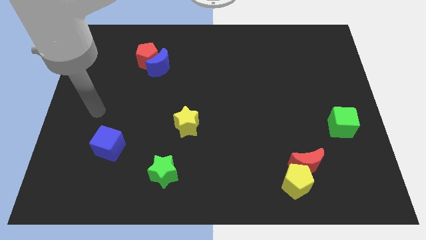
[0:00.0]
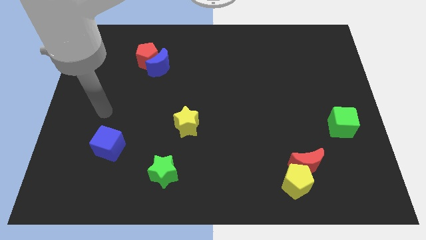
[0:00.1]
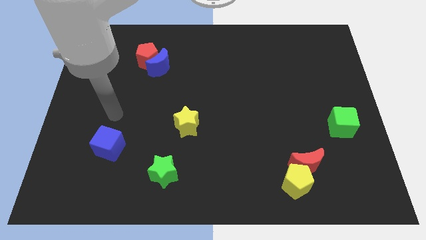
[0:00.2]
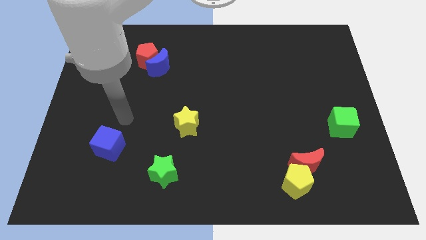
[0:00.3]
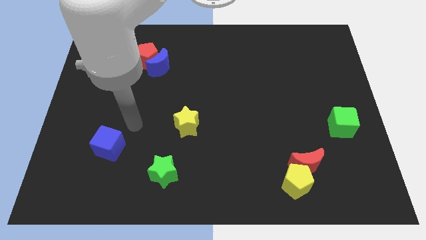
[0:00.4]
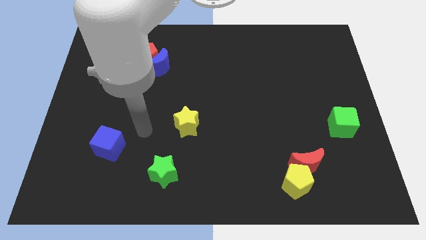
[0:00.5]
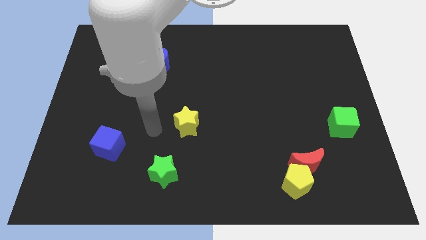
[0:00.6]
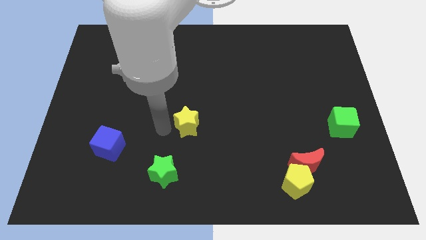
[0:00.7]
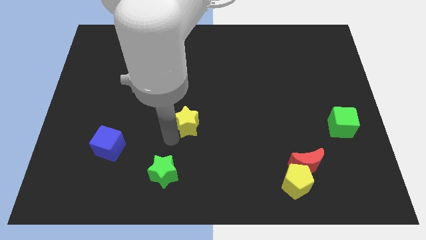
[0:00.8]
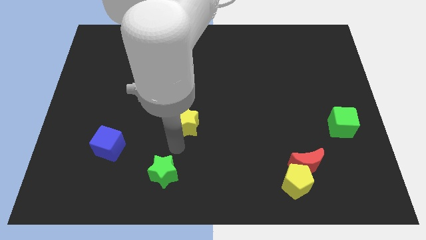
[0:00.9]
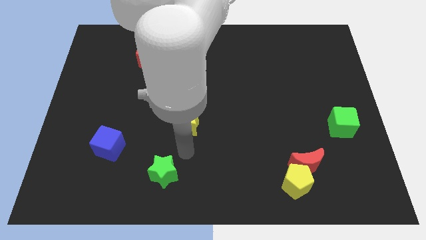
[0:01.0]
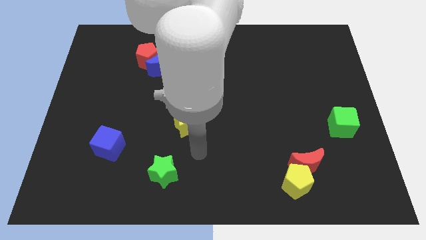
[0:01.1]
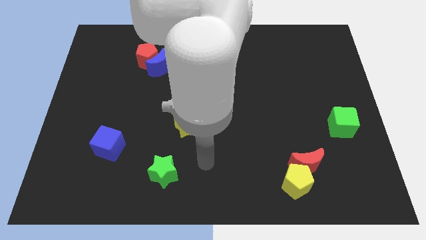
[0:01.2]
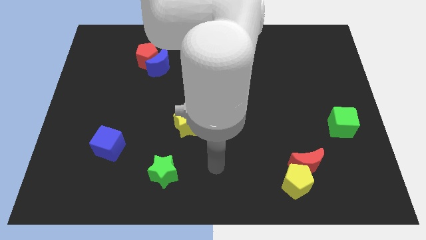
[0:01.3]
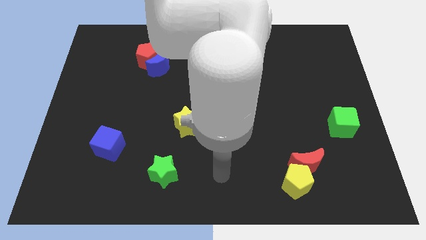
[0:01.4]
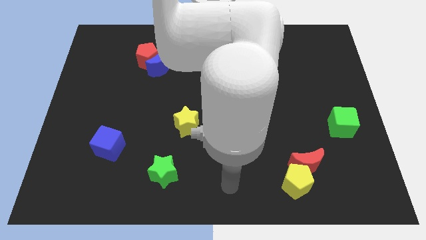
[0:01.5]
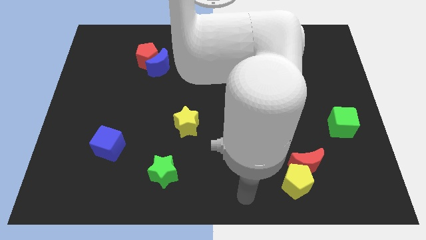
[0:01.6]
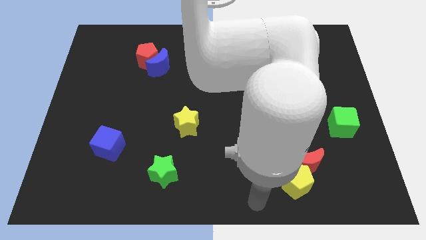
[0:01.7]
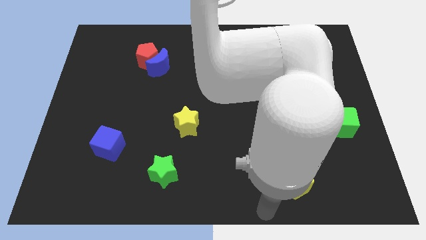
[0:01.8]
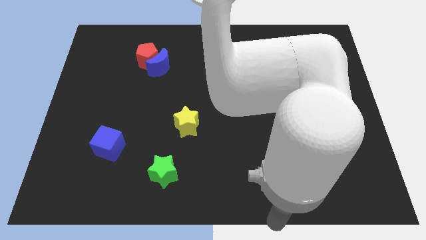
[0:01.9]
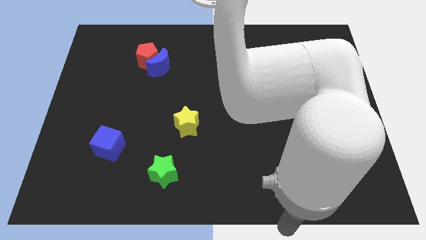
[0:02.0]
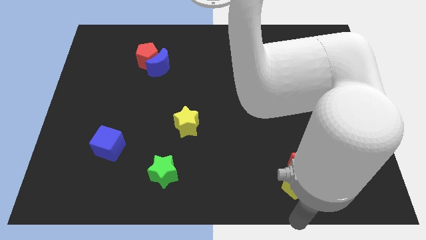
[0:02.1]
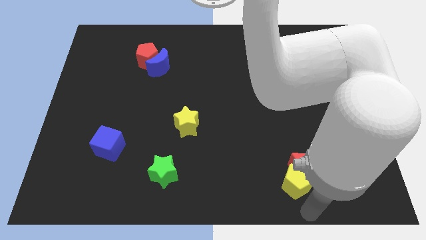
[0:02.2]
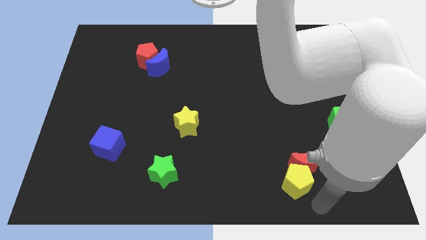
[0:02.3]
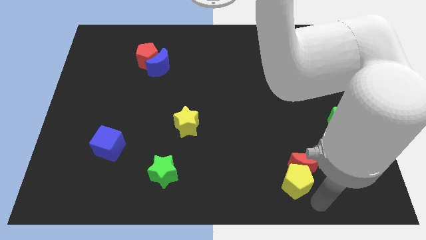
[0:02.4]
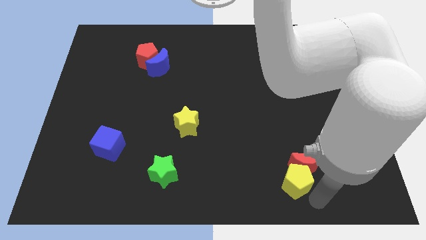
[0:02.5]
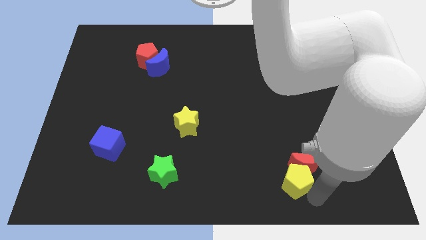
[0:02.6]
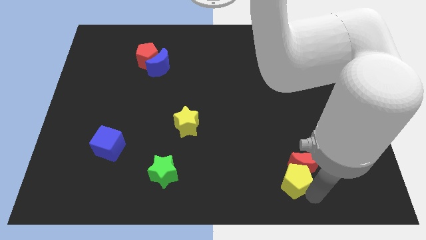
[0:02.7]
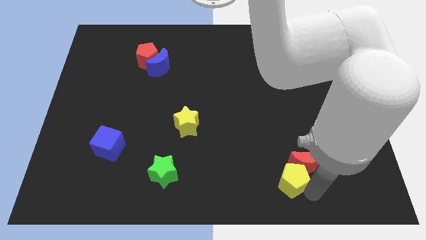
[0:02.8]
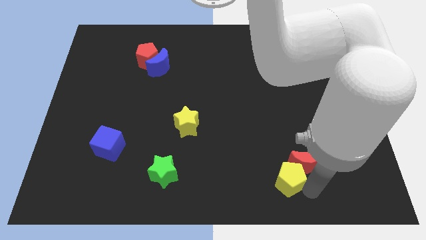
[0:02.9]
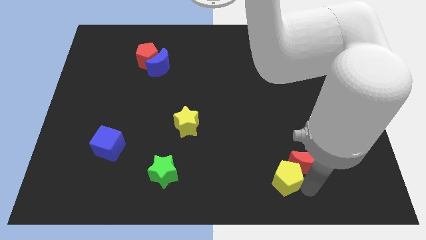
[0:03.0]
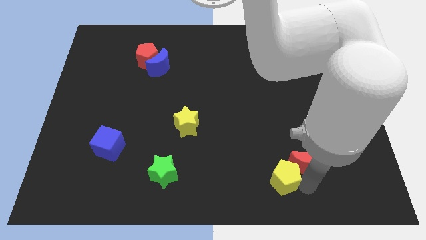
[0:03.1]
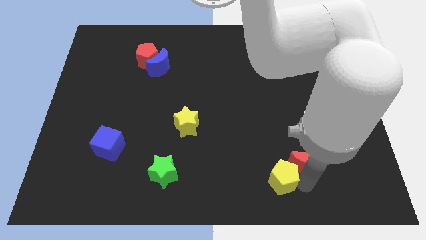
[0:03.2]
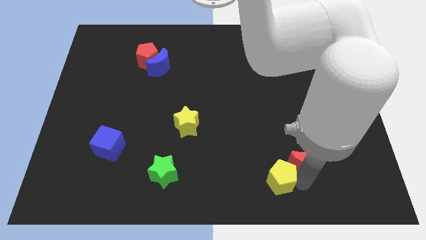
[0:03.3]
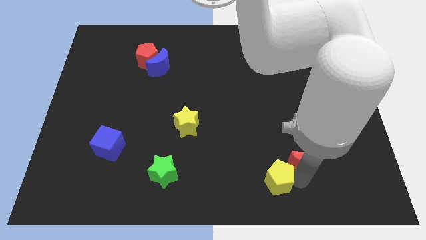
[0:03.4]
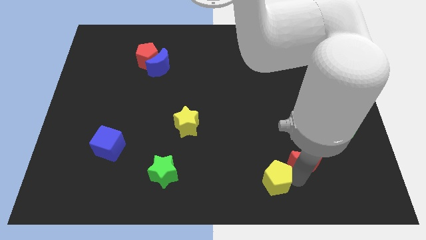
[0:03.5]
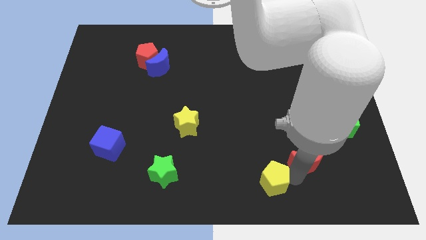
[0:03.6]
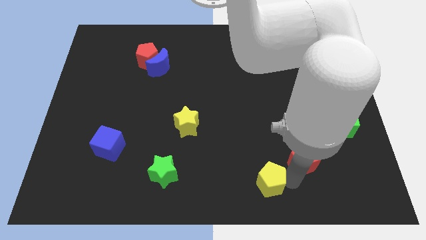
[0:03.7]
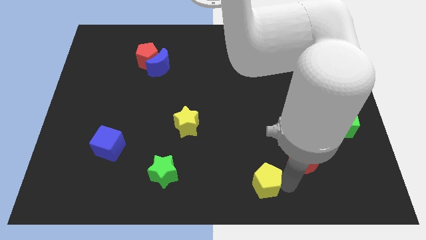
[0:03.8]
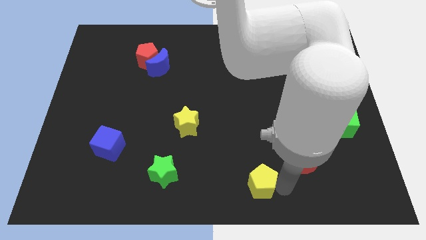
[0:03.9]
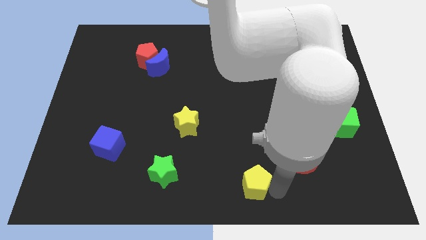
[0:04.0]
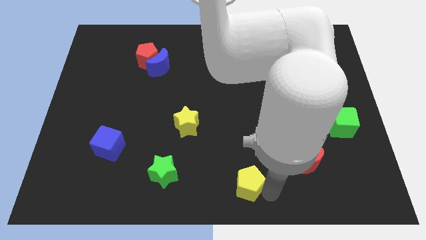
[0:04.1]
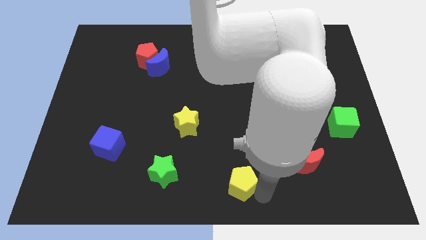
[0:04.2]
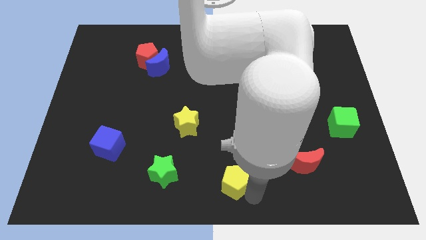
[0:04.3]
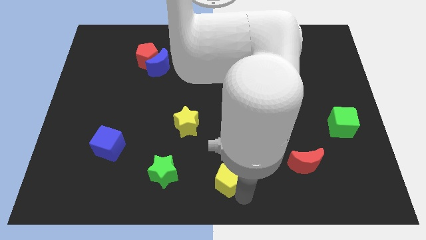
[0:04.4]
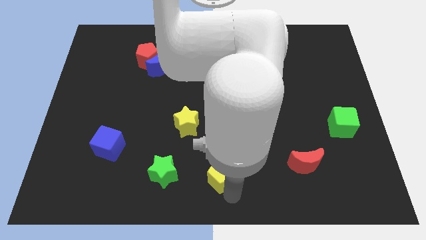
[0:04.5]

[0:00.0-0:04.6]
slightly move the yellow pentagon diagonally up and to the left

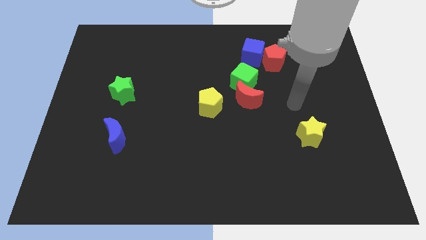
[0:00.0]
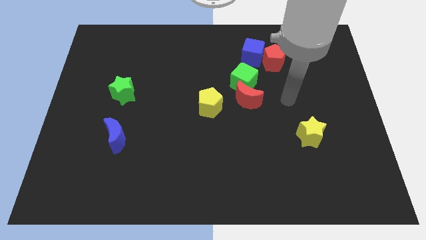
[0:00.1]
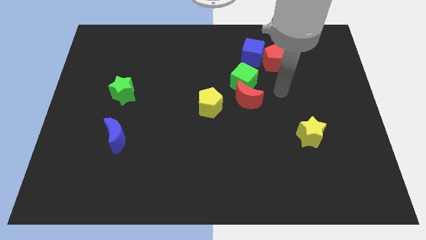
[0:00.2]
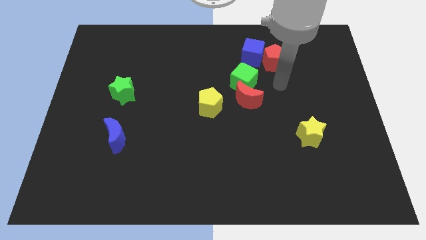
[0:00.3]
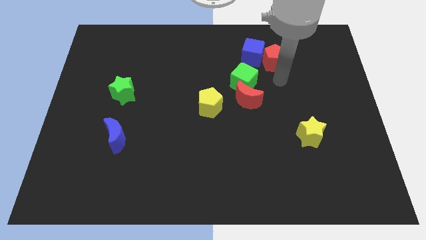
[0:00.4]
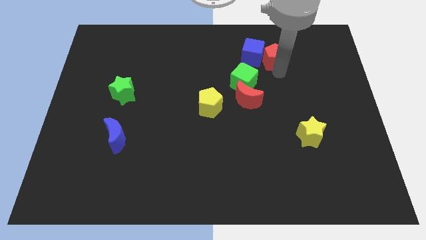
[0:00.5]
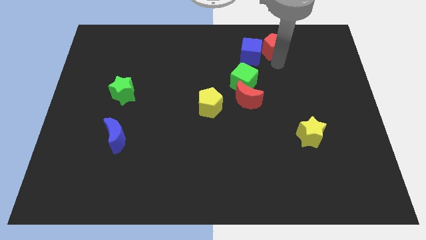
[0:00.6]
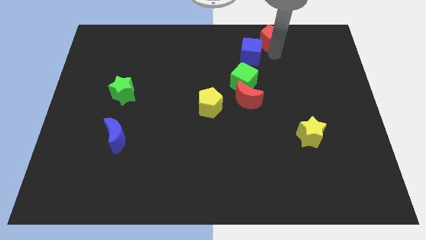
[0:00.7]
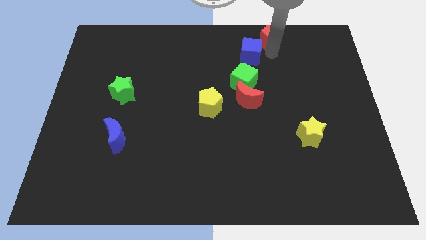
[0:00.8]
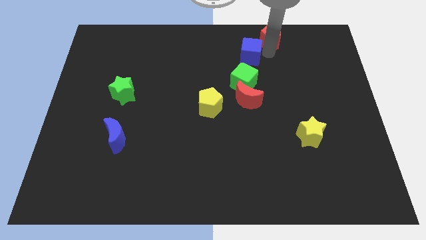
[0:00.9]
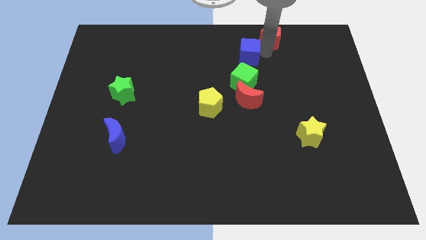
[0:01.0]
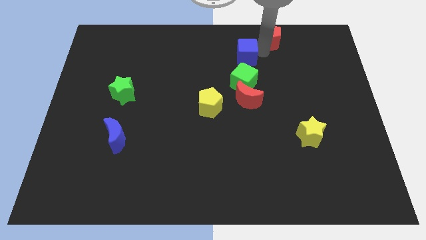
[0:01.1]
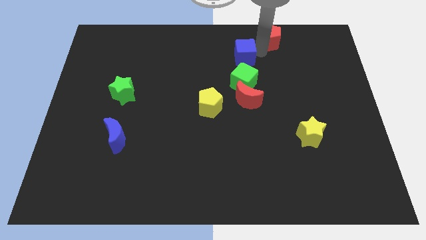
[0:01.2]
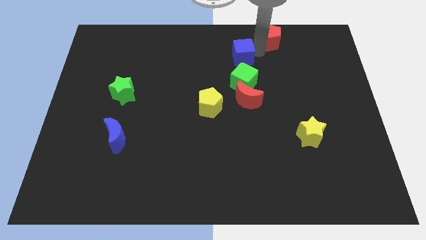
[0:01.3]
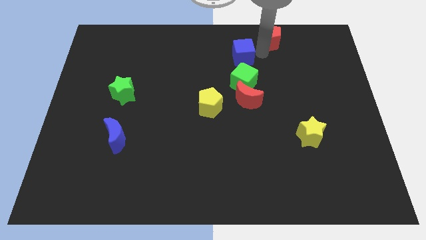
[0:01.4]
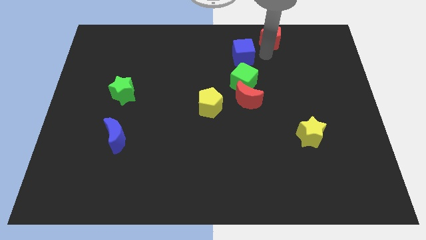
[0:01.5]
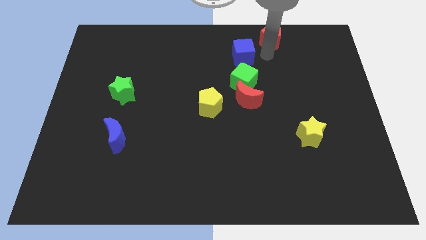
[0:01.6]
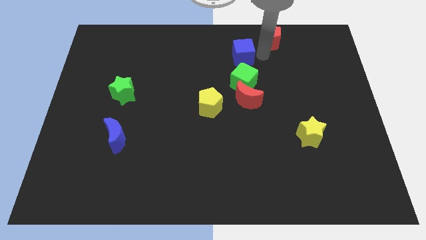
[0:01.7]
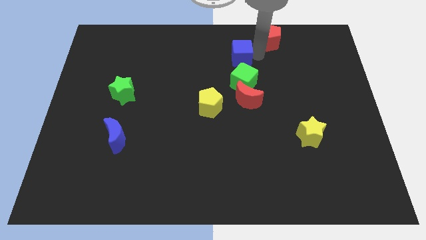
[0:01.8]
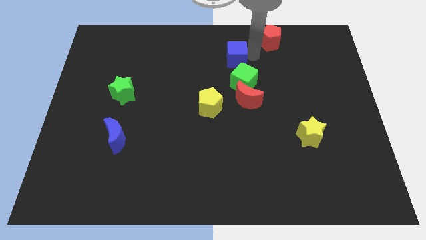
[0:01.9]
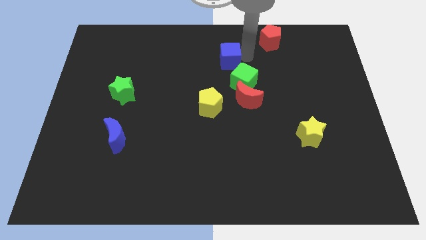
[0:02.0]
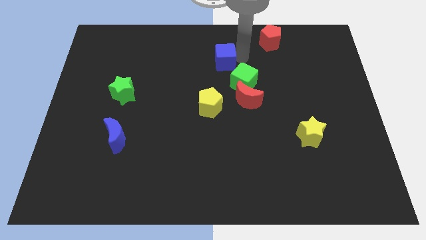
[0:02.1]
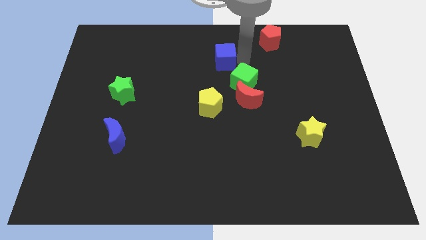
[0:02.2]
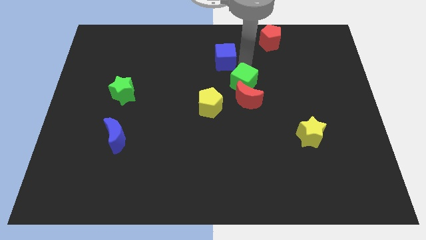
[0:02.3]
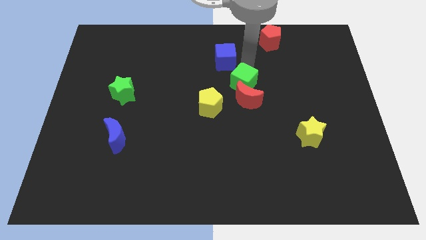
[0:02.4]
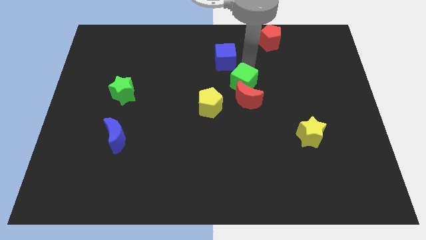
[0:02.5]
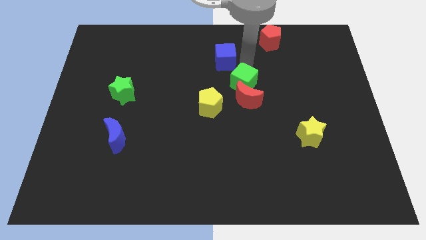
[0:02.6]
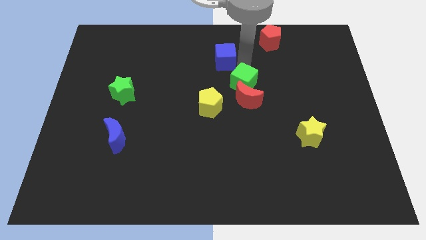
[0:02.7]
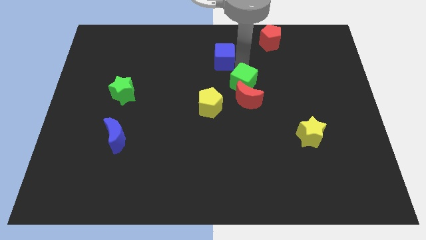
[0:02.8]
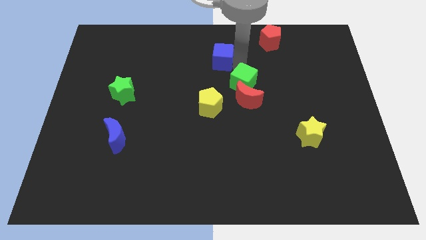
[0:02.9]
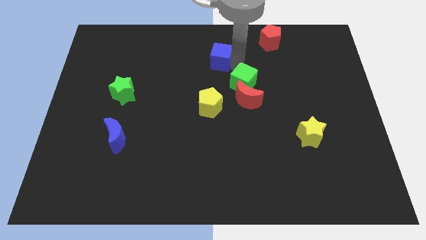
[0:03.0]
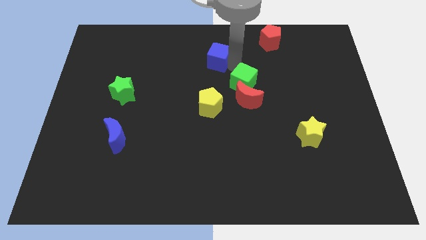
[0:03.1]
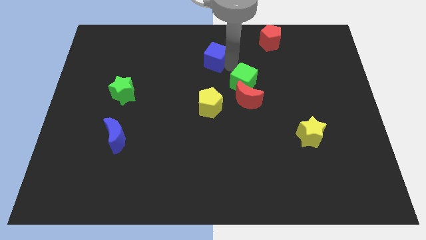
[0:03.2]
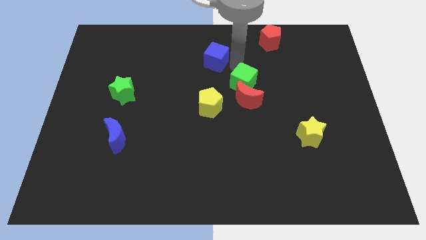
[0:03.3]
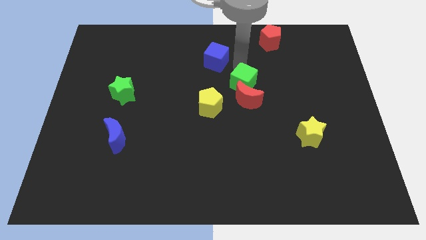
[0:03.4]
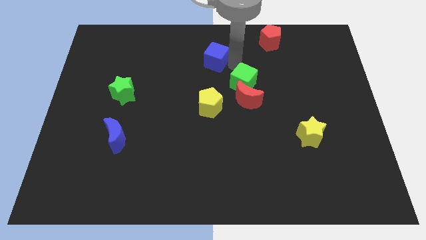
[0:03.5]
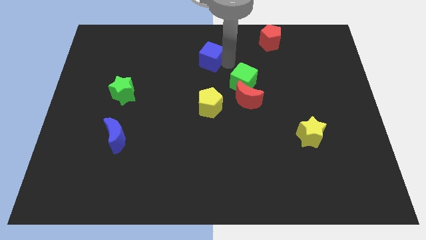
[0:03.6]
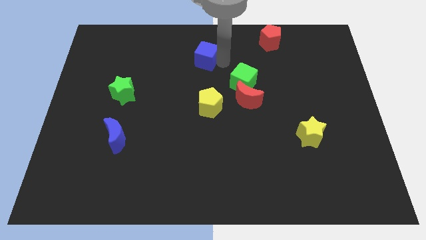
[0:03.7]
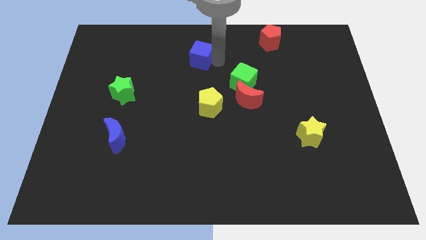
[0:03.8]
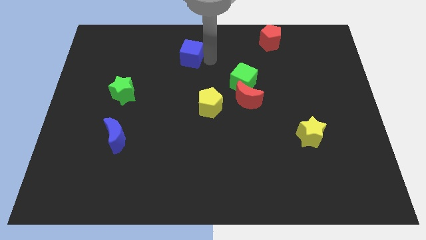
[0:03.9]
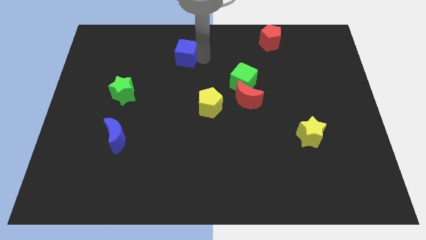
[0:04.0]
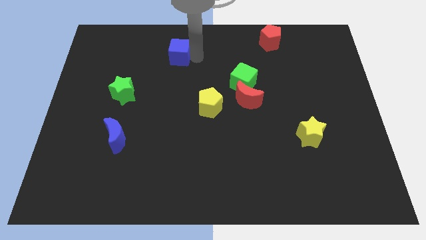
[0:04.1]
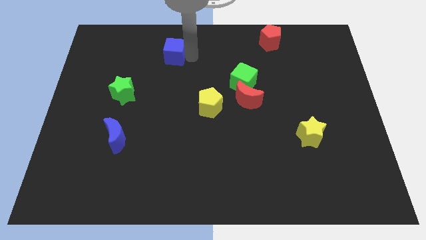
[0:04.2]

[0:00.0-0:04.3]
push the blue cube to the left
